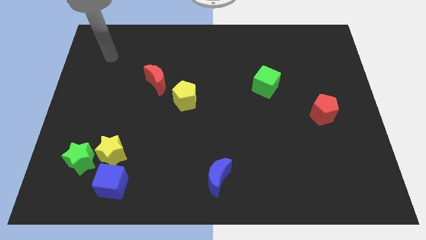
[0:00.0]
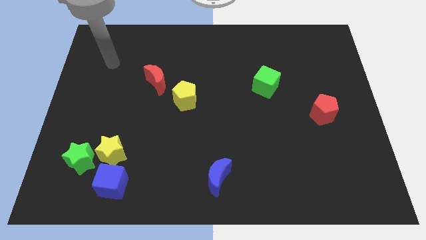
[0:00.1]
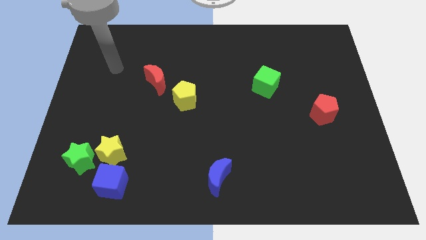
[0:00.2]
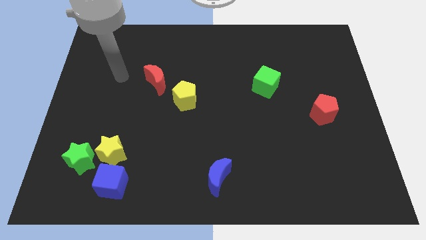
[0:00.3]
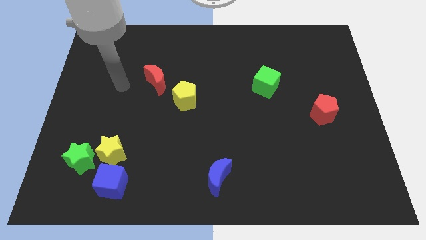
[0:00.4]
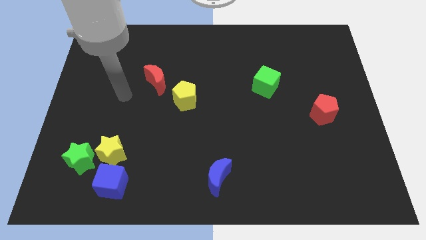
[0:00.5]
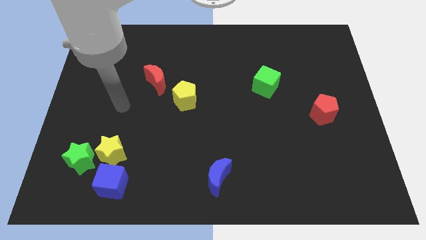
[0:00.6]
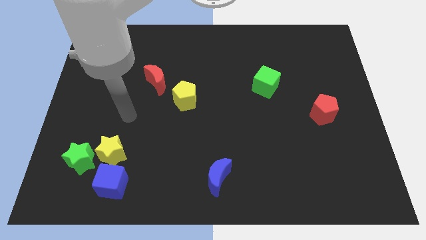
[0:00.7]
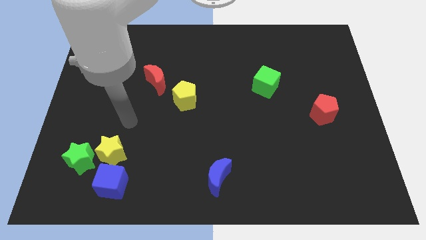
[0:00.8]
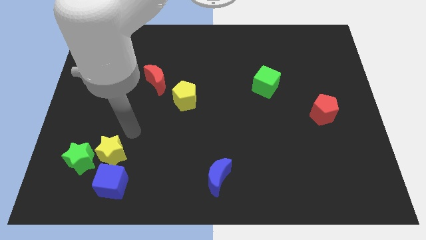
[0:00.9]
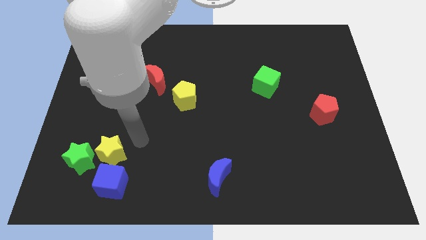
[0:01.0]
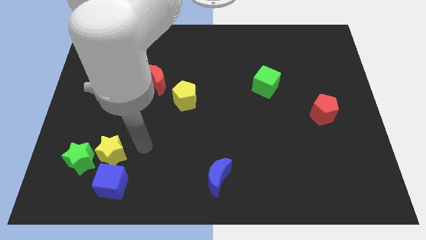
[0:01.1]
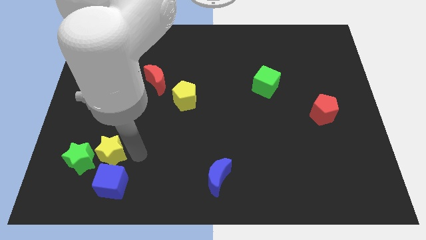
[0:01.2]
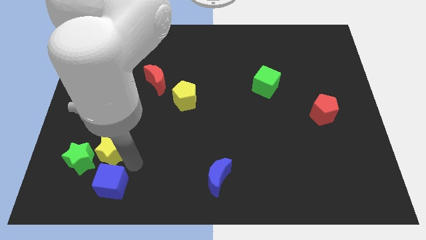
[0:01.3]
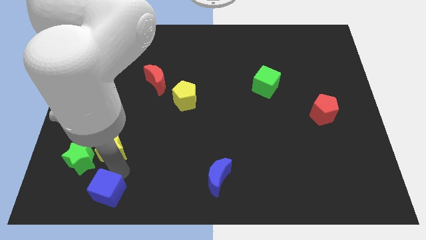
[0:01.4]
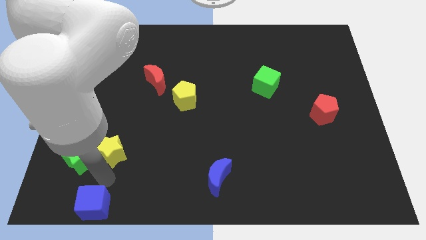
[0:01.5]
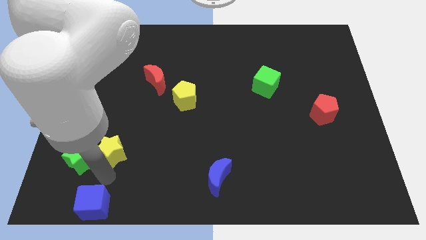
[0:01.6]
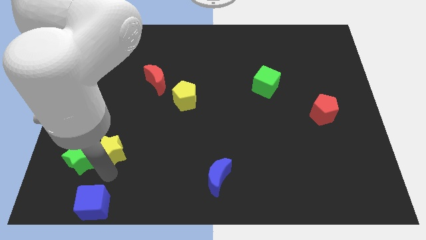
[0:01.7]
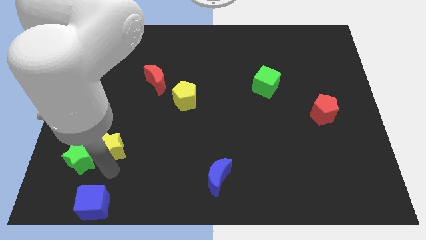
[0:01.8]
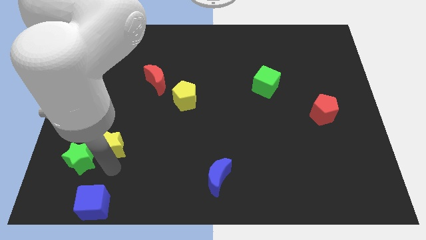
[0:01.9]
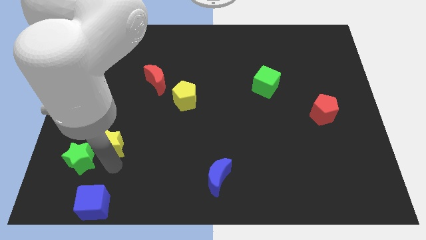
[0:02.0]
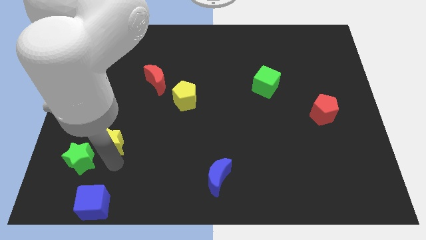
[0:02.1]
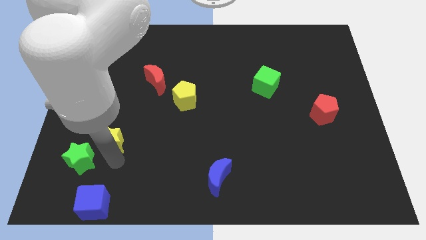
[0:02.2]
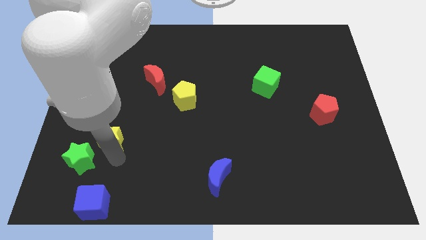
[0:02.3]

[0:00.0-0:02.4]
separate the yellow star from the green star and blue cube

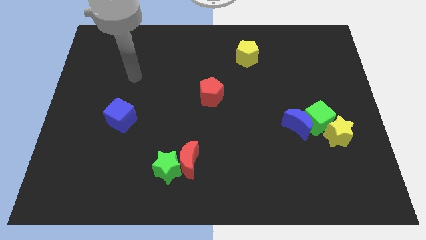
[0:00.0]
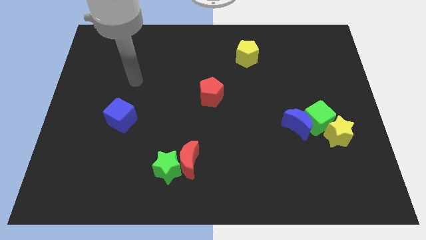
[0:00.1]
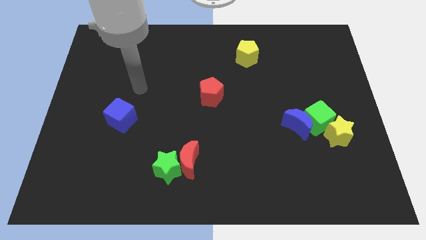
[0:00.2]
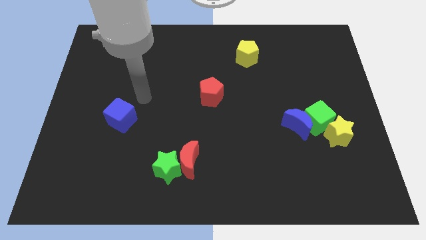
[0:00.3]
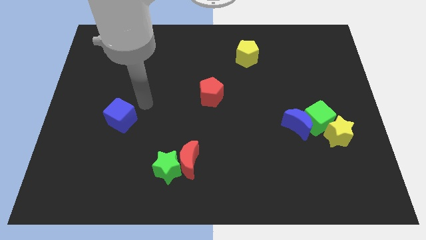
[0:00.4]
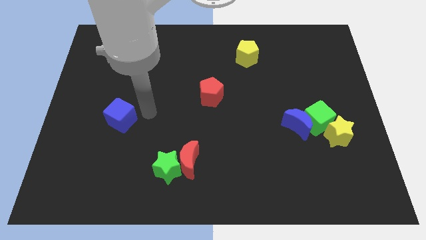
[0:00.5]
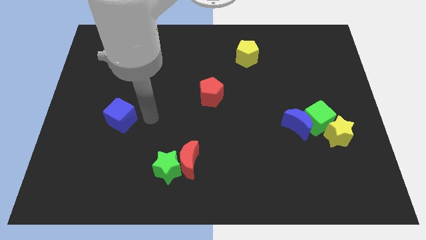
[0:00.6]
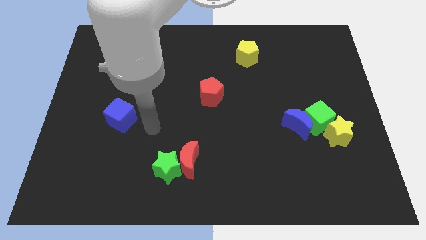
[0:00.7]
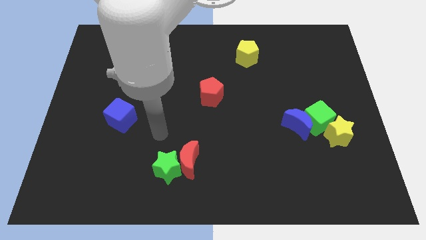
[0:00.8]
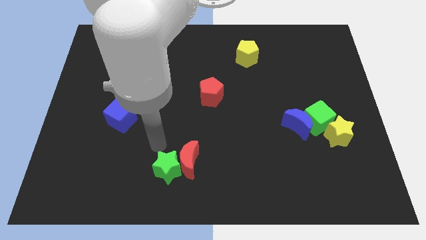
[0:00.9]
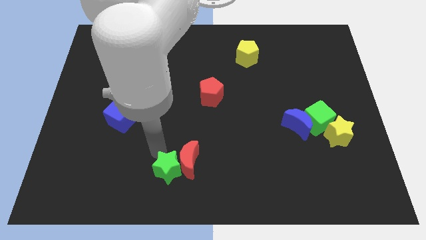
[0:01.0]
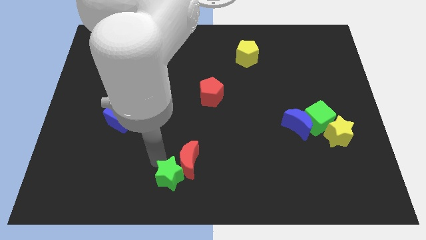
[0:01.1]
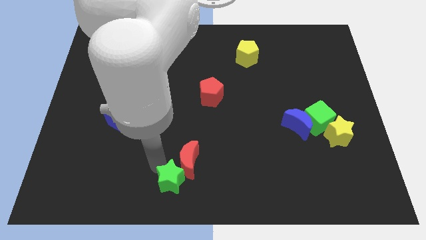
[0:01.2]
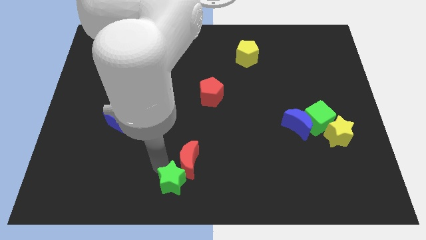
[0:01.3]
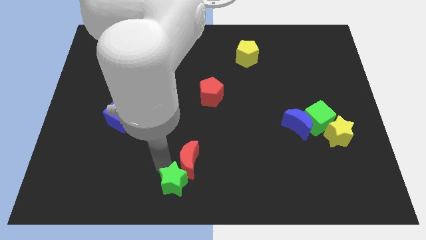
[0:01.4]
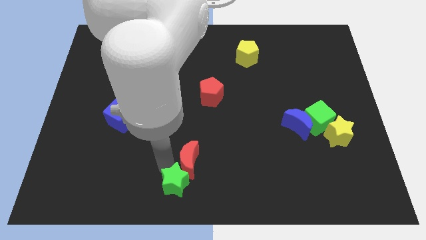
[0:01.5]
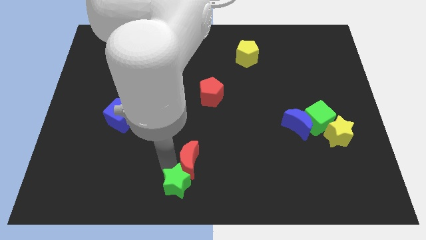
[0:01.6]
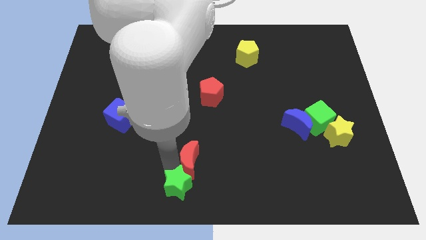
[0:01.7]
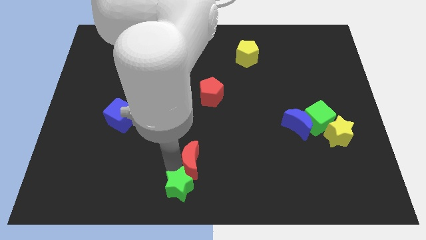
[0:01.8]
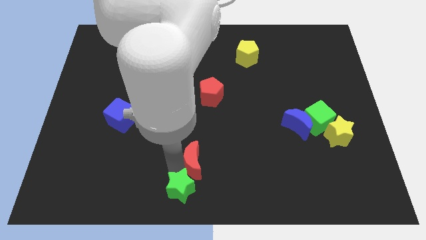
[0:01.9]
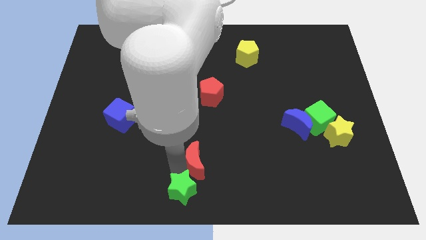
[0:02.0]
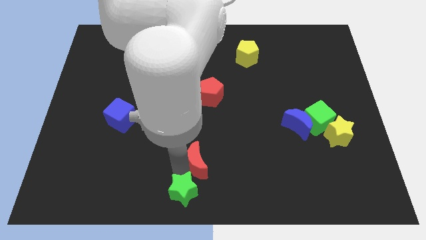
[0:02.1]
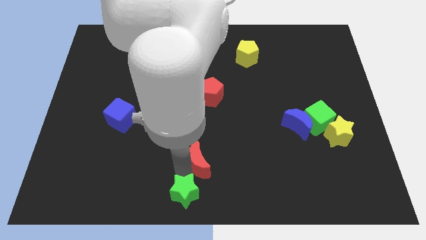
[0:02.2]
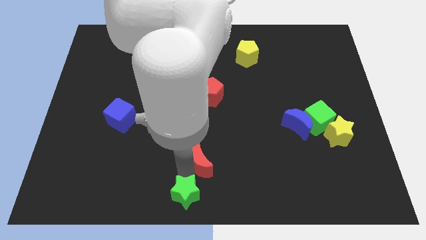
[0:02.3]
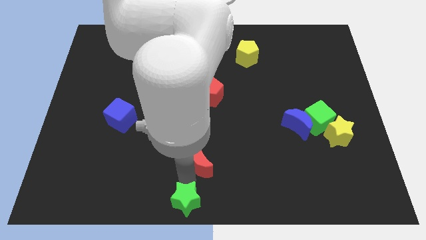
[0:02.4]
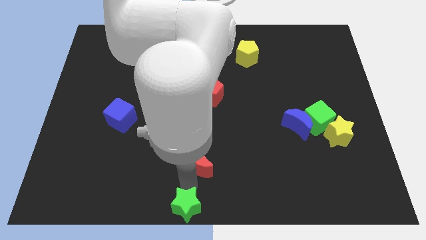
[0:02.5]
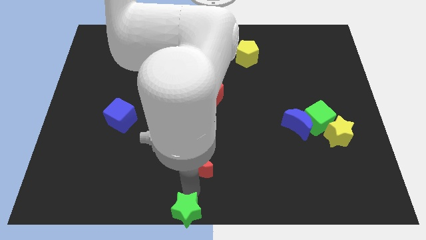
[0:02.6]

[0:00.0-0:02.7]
move the red moon away from the green star

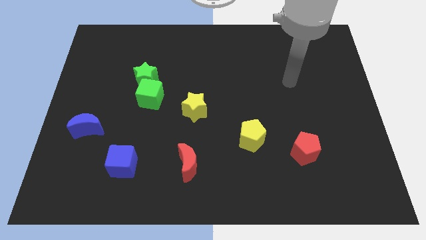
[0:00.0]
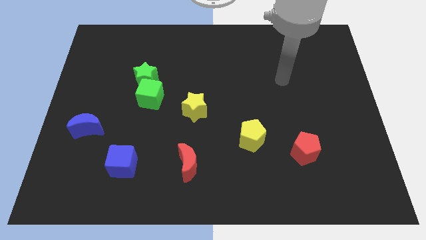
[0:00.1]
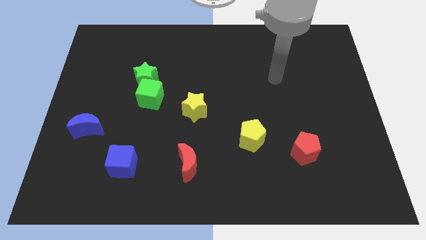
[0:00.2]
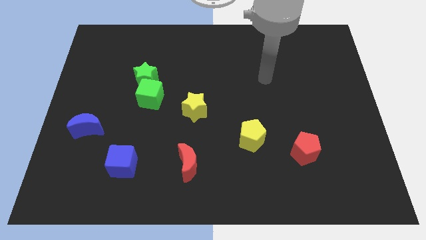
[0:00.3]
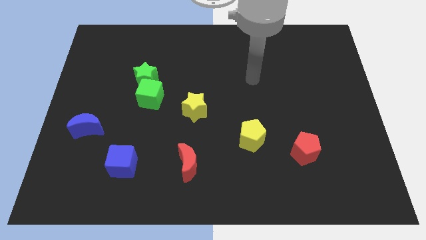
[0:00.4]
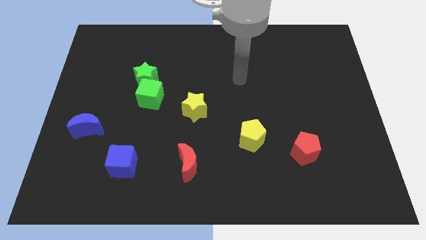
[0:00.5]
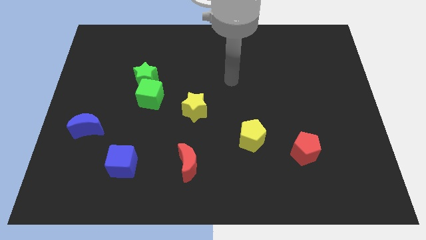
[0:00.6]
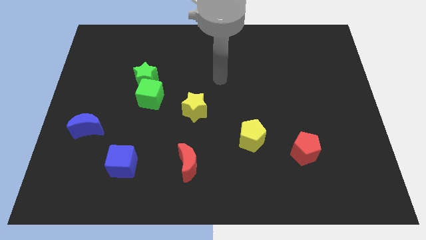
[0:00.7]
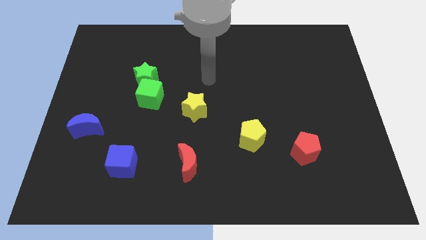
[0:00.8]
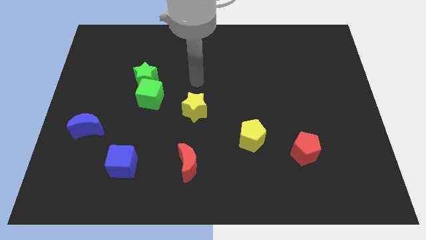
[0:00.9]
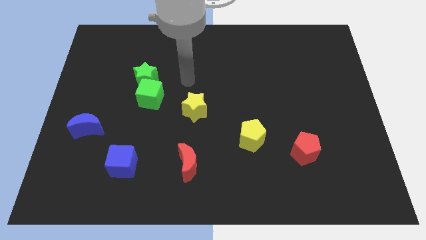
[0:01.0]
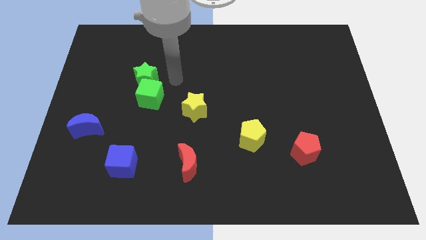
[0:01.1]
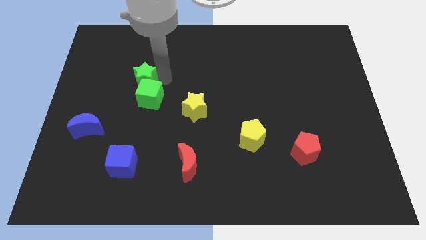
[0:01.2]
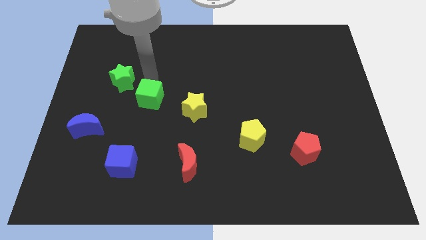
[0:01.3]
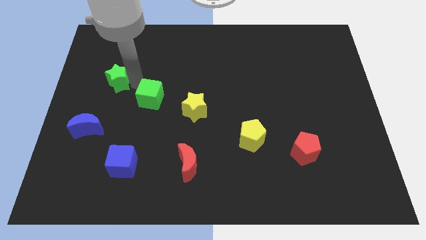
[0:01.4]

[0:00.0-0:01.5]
move the green cube away from the green star

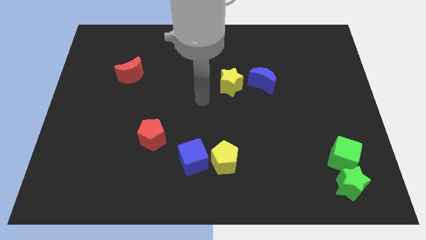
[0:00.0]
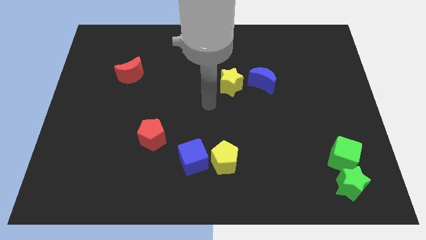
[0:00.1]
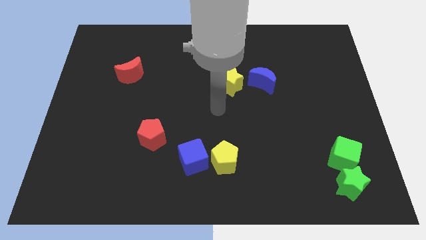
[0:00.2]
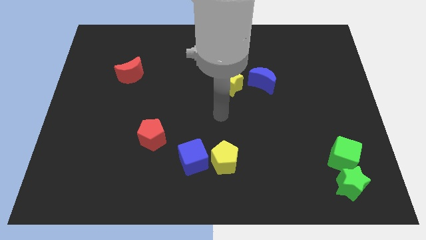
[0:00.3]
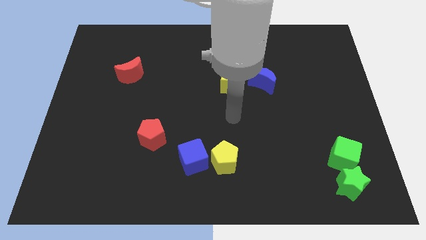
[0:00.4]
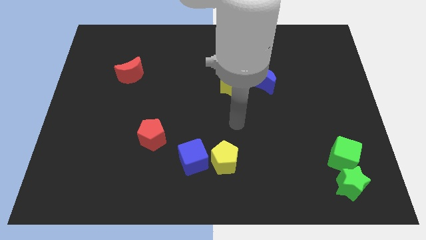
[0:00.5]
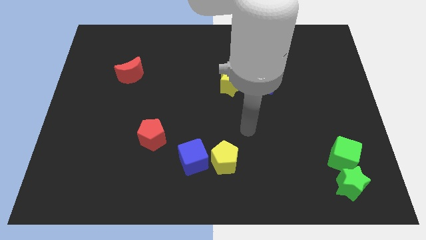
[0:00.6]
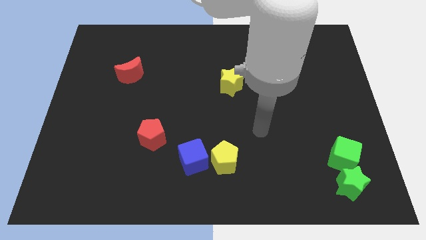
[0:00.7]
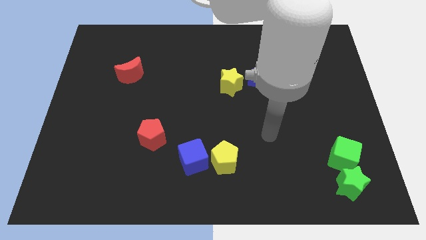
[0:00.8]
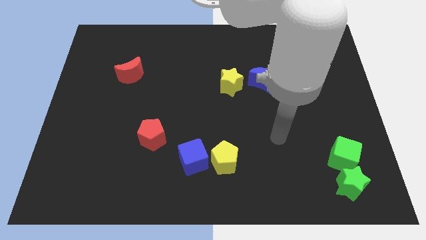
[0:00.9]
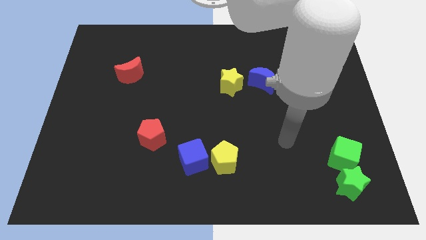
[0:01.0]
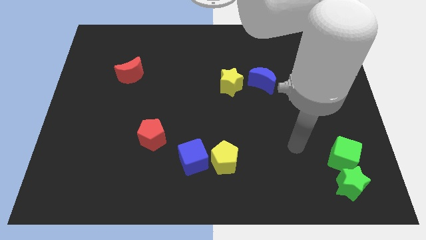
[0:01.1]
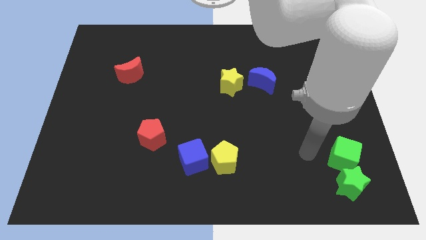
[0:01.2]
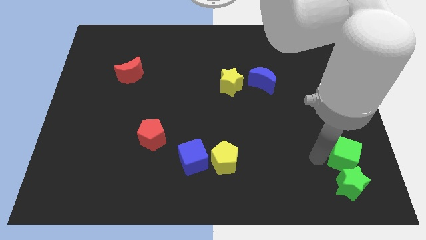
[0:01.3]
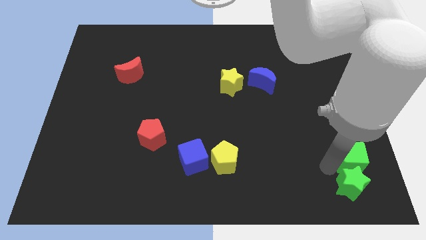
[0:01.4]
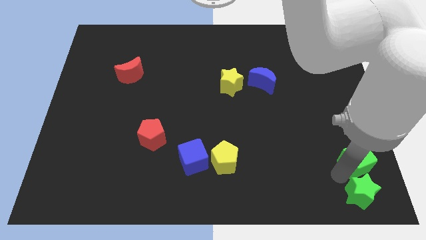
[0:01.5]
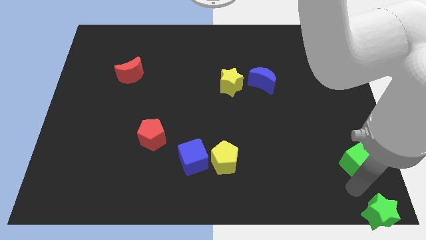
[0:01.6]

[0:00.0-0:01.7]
pull the green cube apart from the green star

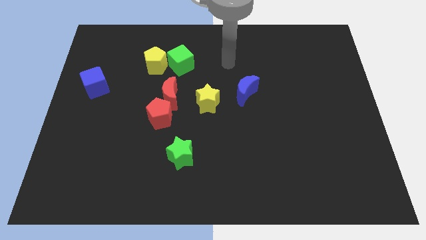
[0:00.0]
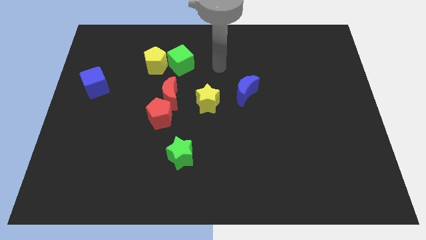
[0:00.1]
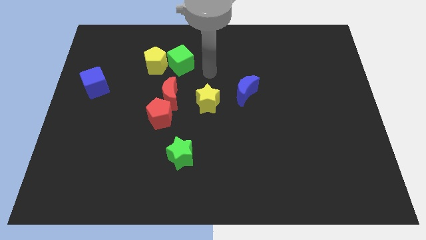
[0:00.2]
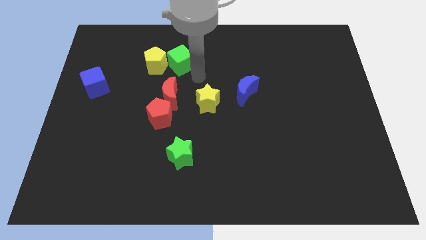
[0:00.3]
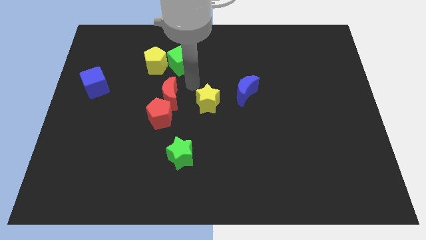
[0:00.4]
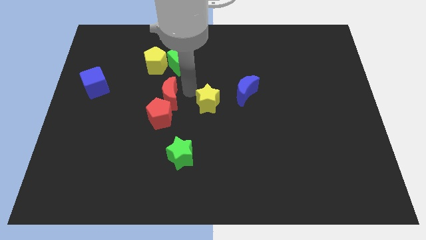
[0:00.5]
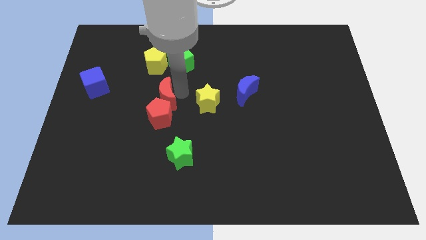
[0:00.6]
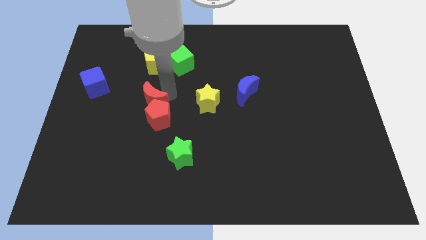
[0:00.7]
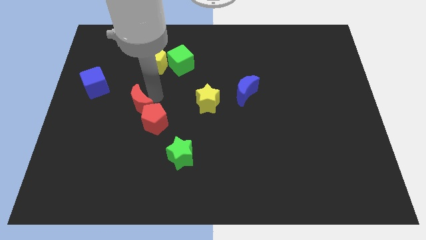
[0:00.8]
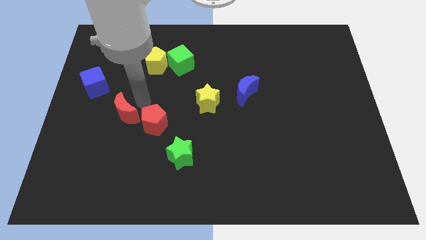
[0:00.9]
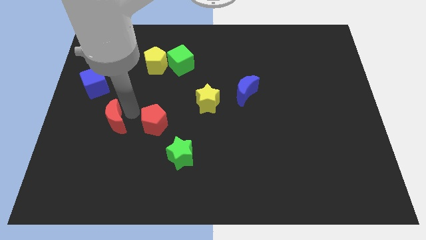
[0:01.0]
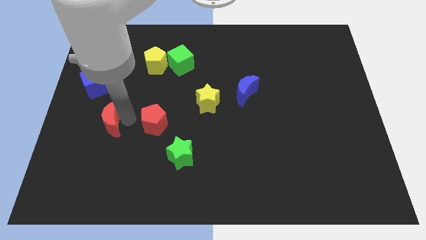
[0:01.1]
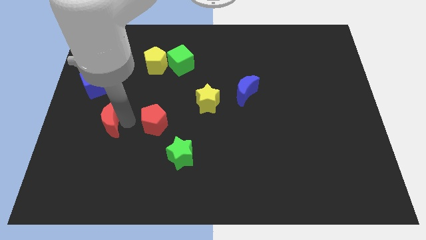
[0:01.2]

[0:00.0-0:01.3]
separate the red pentagon from the red moon
